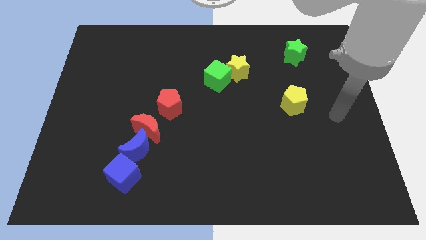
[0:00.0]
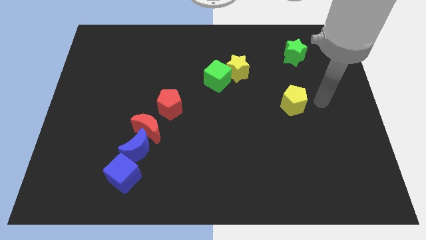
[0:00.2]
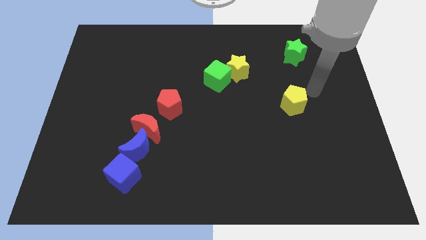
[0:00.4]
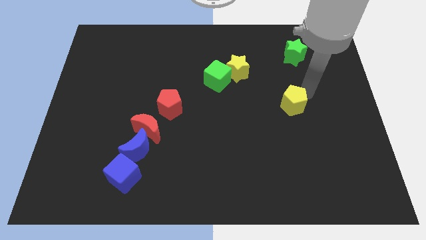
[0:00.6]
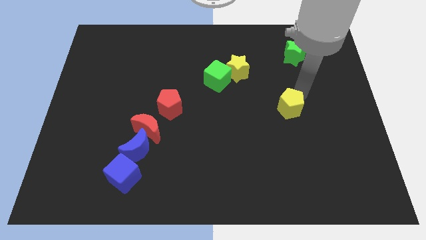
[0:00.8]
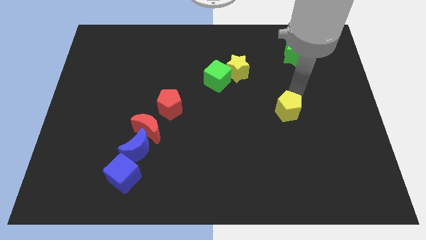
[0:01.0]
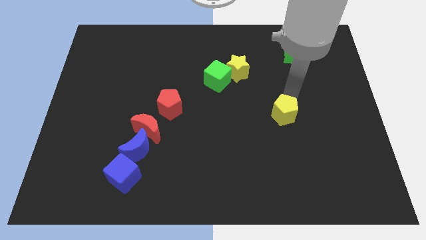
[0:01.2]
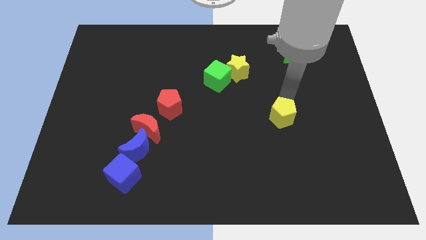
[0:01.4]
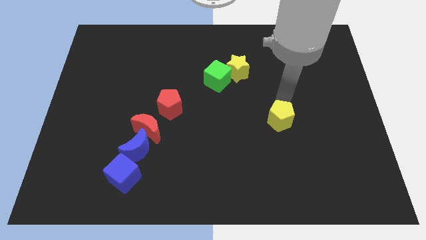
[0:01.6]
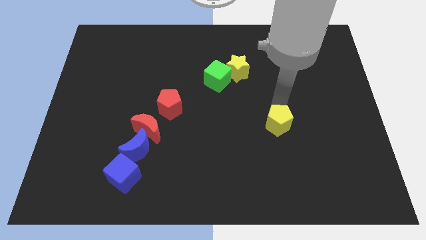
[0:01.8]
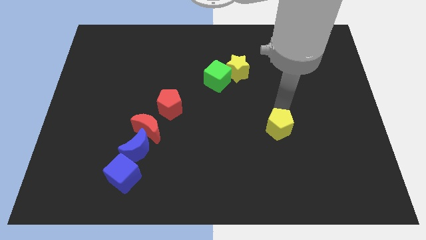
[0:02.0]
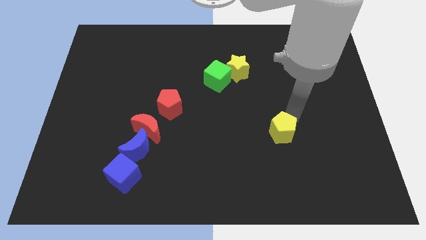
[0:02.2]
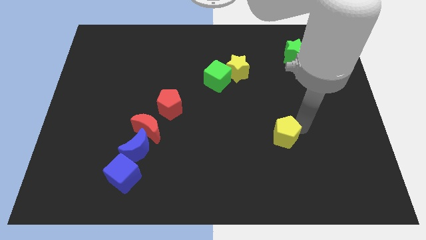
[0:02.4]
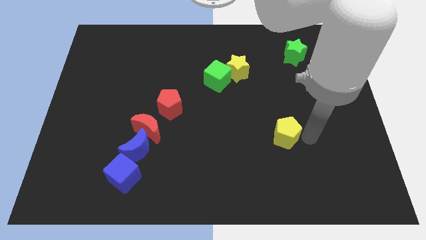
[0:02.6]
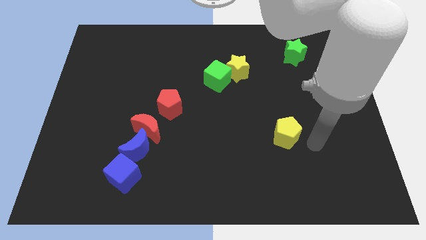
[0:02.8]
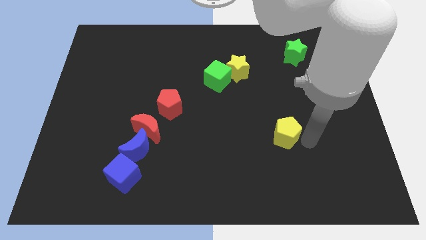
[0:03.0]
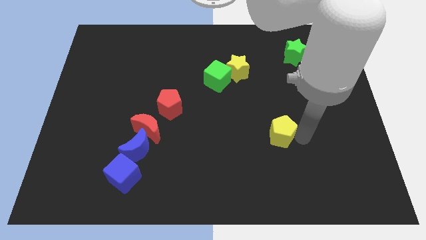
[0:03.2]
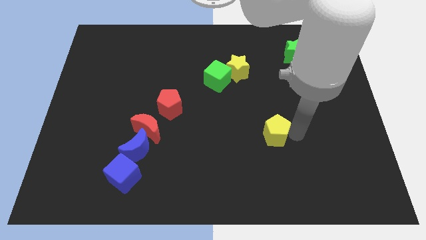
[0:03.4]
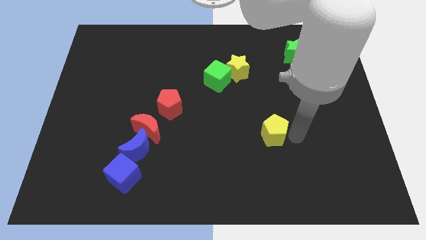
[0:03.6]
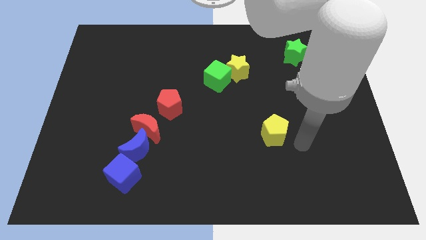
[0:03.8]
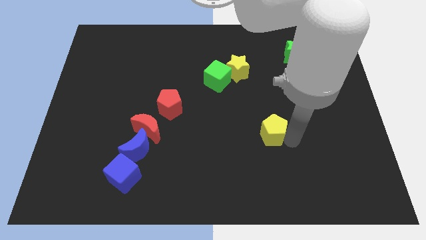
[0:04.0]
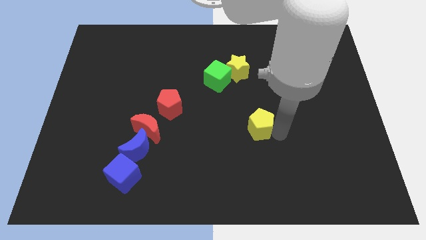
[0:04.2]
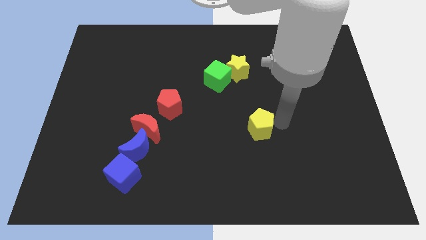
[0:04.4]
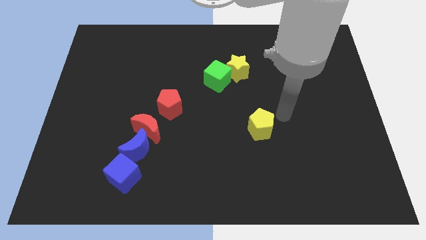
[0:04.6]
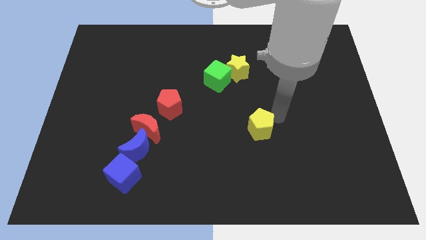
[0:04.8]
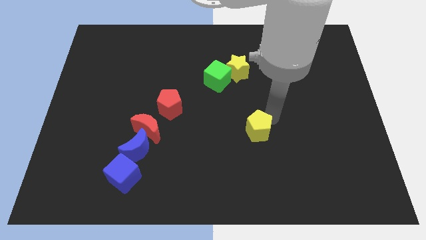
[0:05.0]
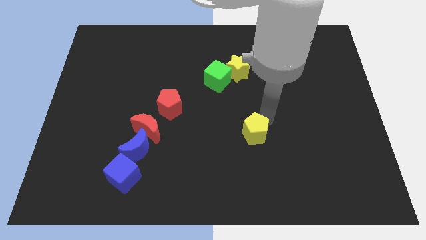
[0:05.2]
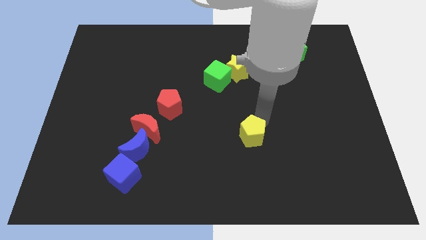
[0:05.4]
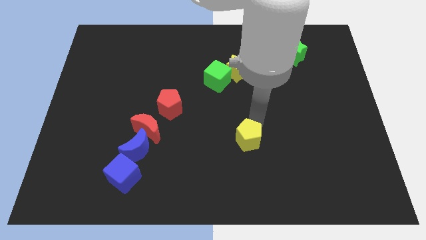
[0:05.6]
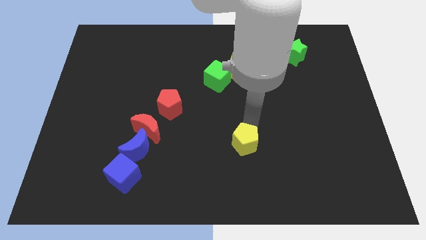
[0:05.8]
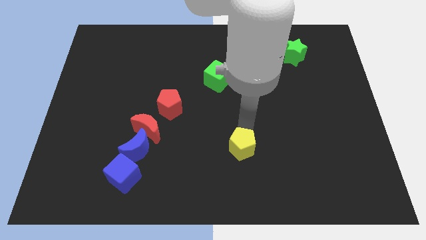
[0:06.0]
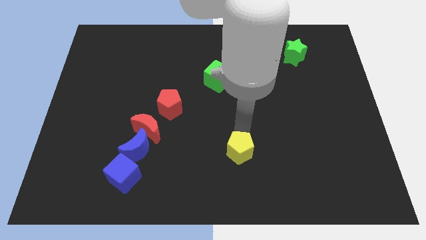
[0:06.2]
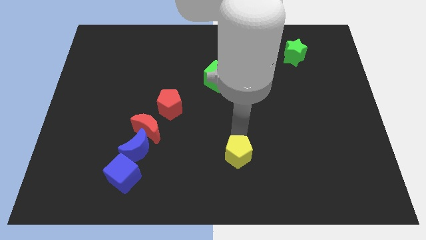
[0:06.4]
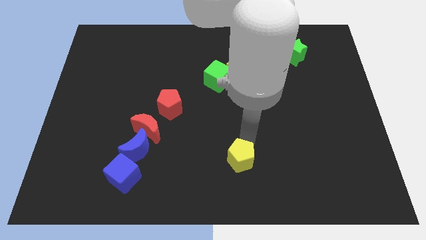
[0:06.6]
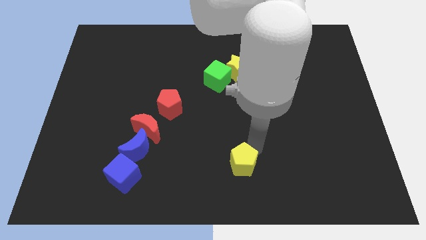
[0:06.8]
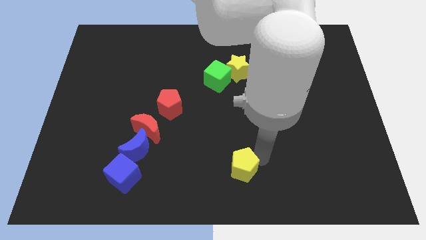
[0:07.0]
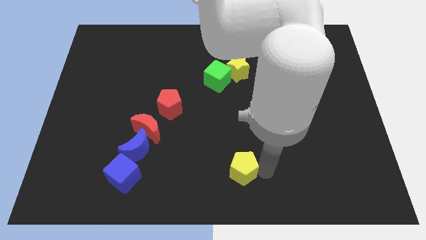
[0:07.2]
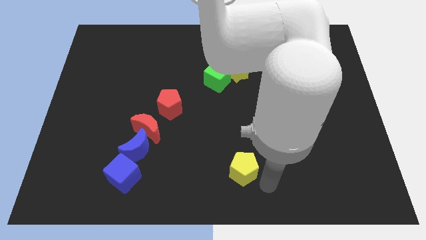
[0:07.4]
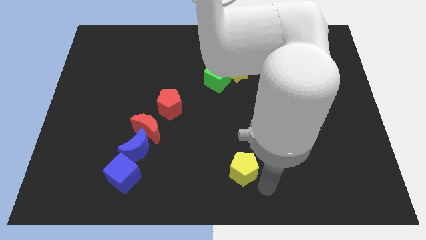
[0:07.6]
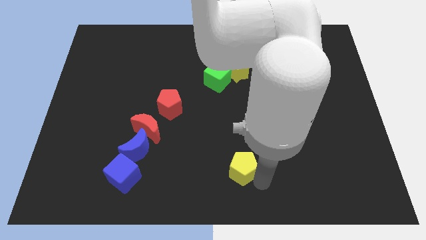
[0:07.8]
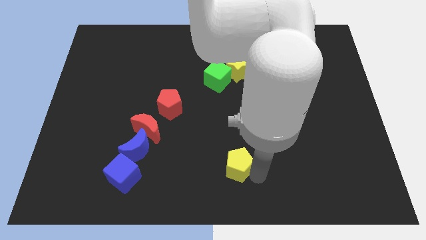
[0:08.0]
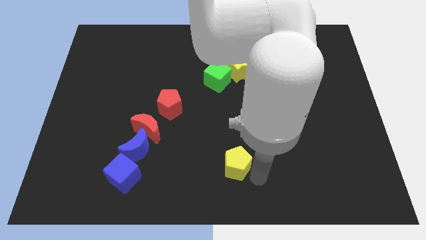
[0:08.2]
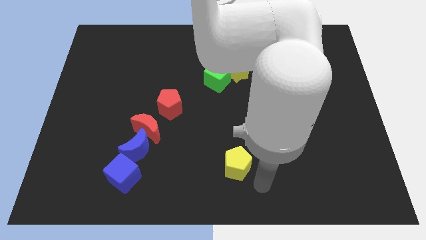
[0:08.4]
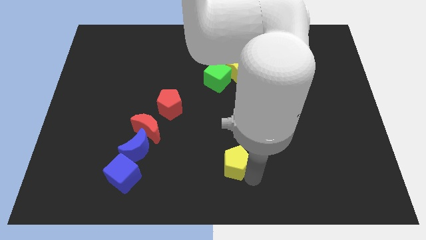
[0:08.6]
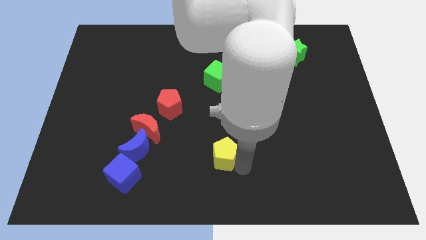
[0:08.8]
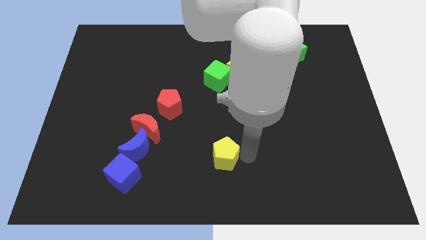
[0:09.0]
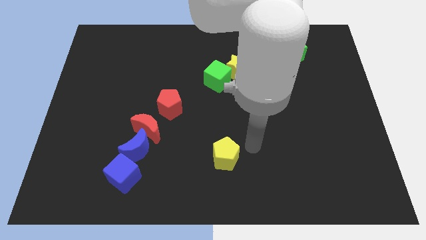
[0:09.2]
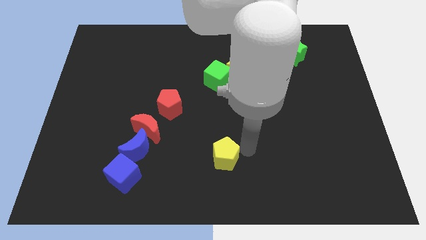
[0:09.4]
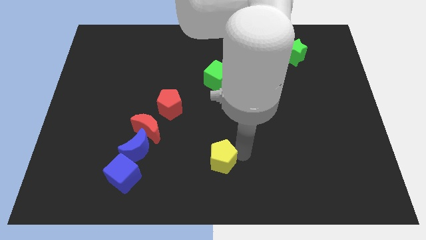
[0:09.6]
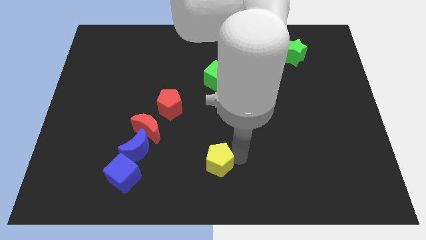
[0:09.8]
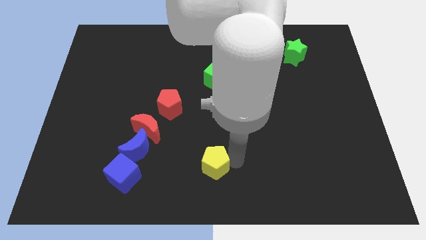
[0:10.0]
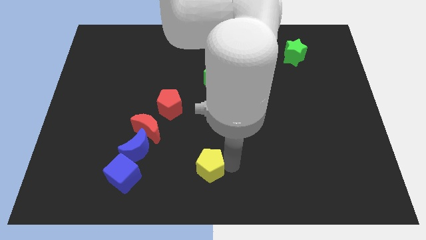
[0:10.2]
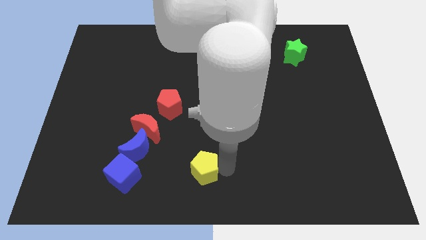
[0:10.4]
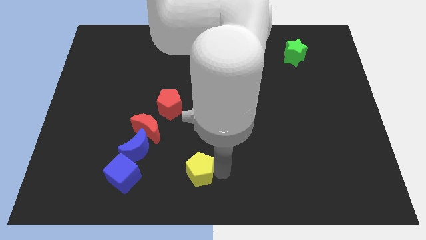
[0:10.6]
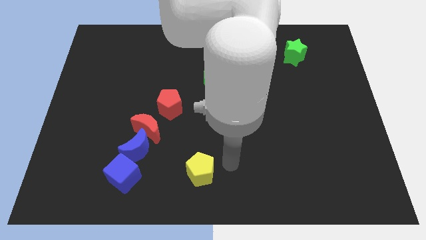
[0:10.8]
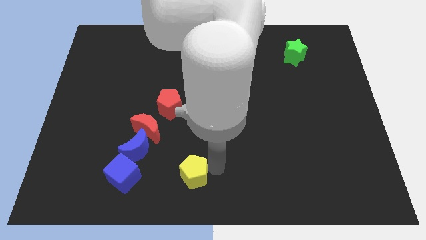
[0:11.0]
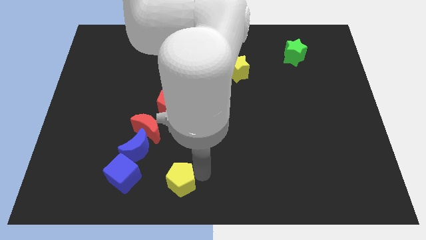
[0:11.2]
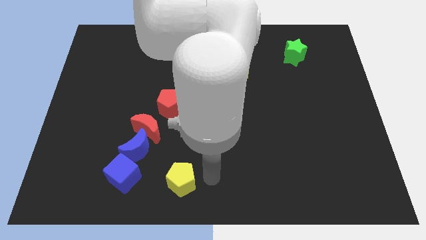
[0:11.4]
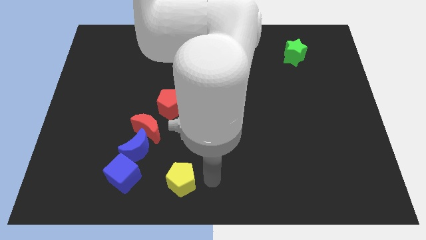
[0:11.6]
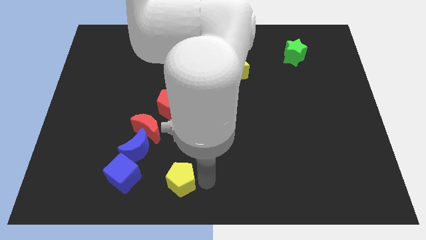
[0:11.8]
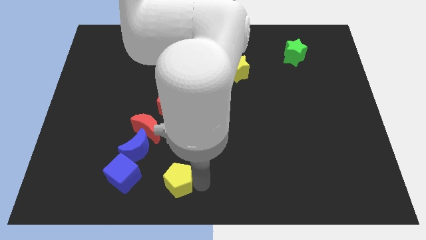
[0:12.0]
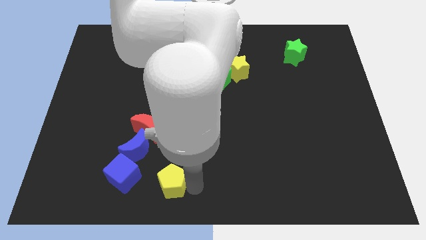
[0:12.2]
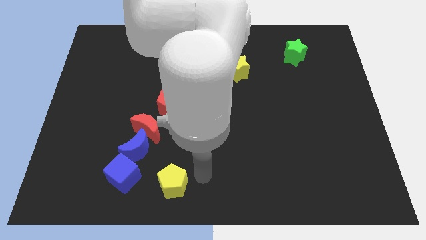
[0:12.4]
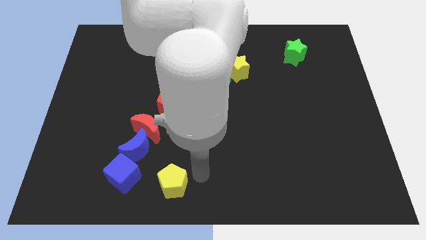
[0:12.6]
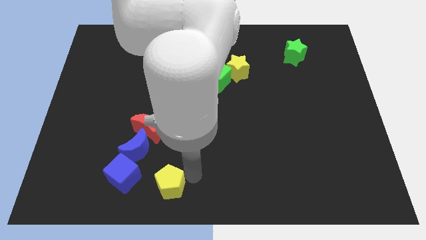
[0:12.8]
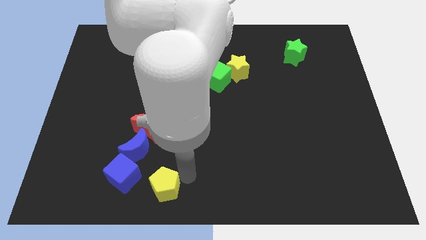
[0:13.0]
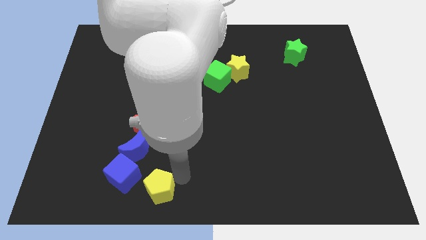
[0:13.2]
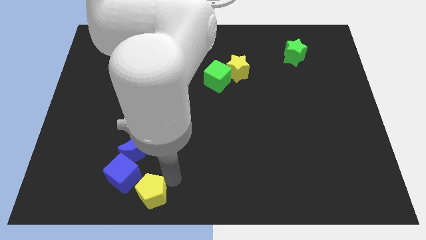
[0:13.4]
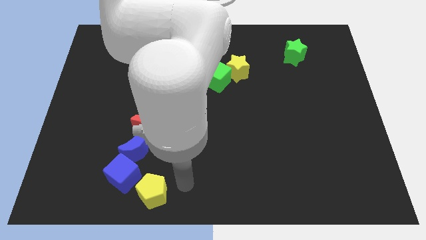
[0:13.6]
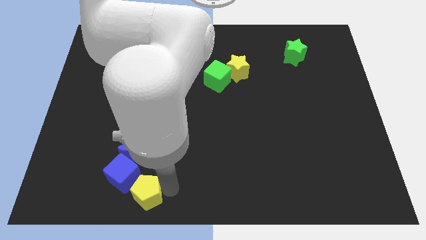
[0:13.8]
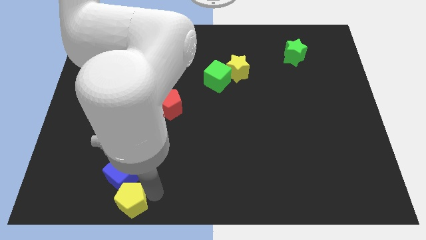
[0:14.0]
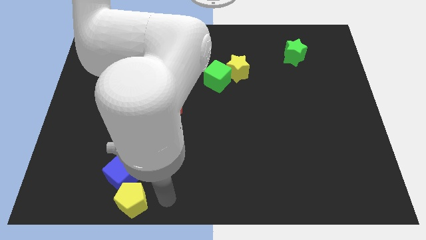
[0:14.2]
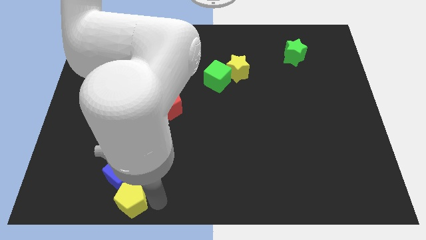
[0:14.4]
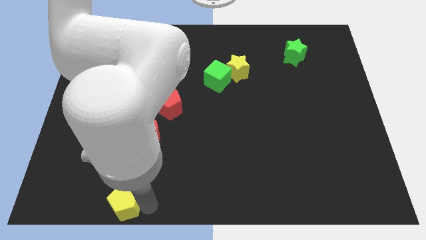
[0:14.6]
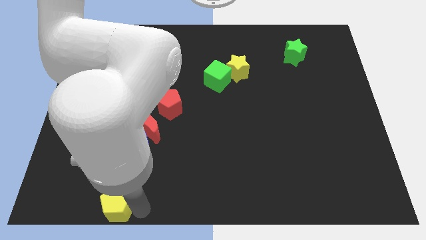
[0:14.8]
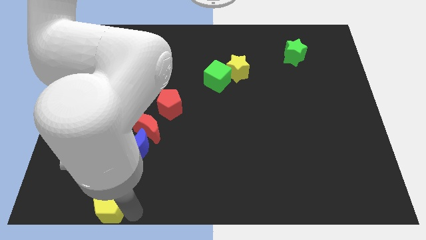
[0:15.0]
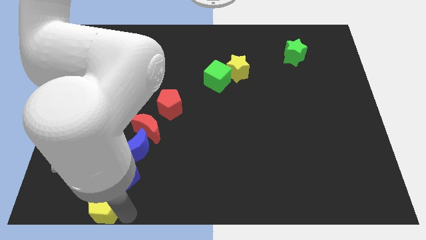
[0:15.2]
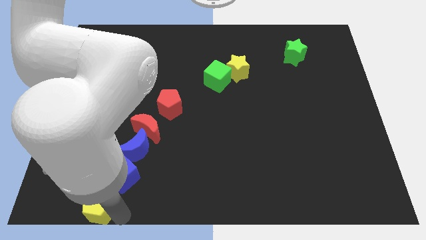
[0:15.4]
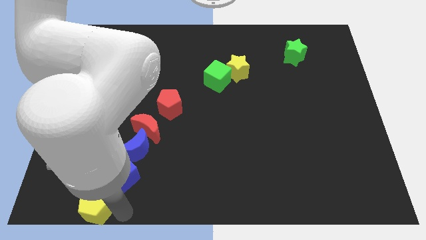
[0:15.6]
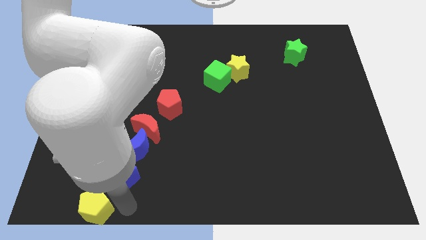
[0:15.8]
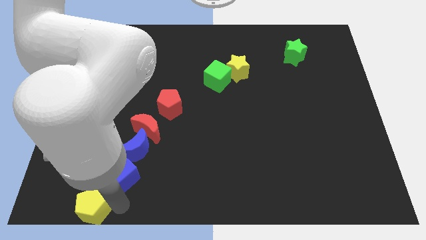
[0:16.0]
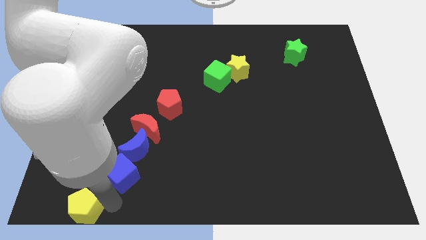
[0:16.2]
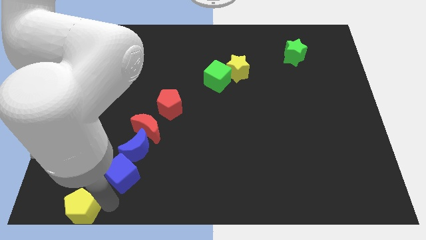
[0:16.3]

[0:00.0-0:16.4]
move the yellow pentagon to the lower left corner
